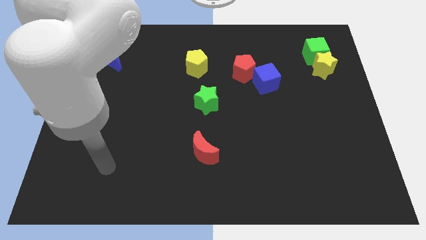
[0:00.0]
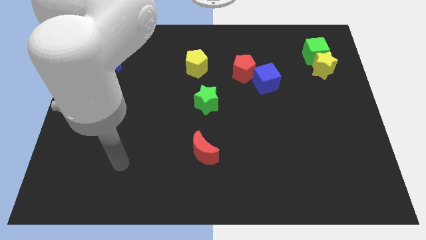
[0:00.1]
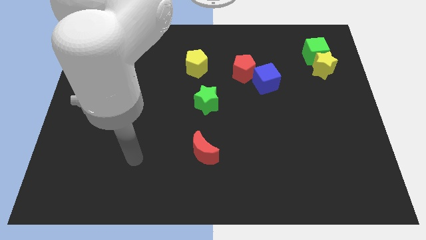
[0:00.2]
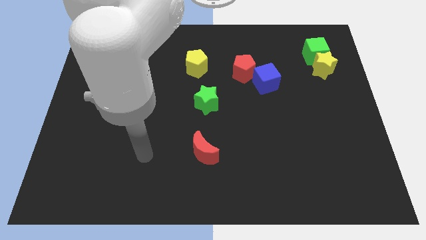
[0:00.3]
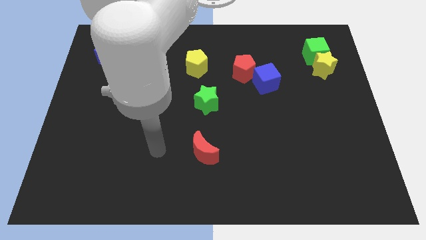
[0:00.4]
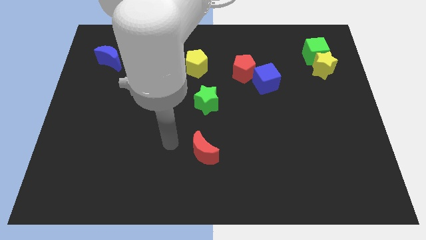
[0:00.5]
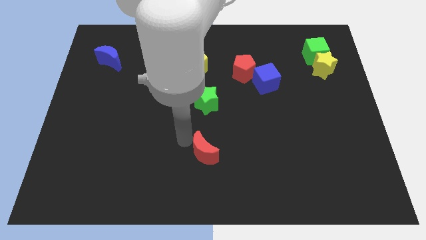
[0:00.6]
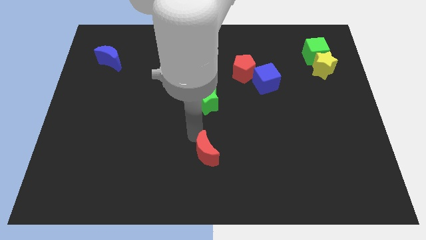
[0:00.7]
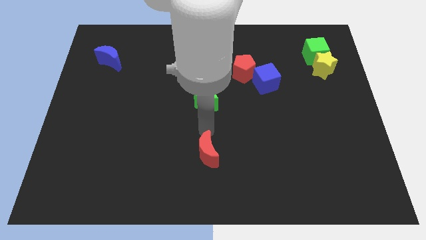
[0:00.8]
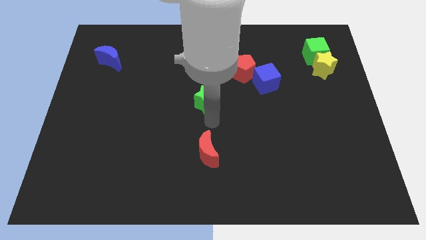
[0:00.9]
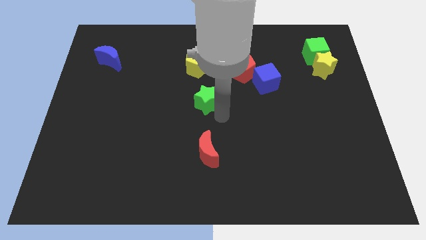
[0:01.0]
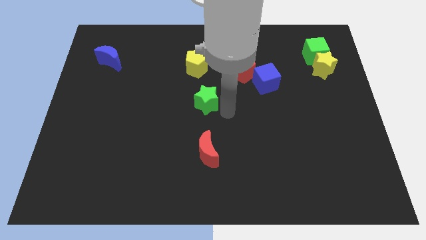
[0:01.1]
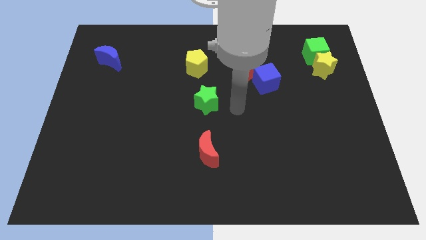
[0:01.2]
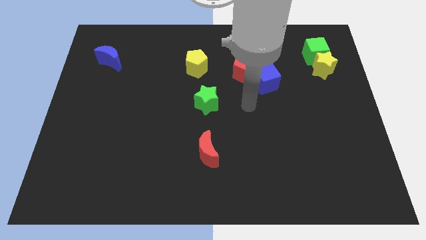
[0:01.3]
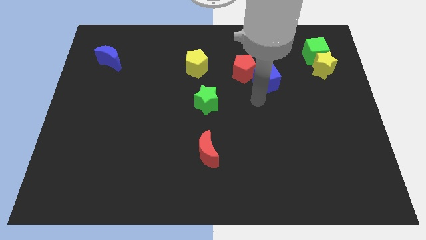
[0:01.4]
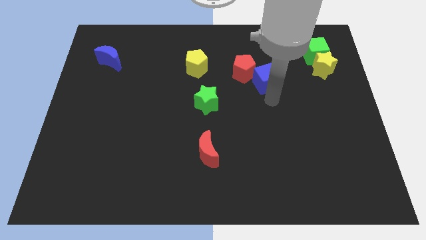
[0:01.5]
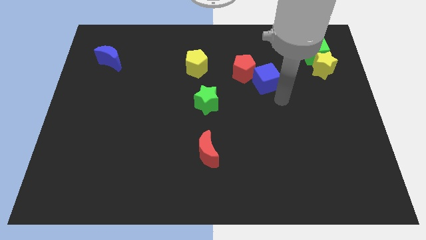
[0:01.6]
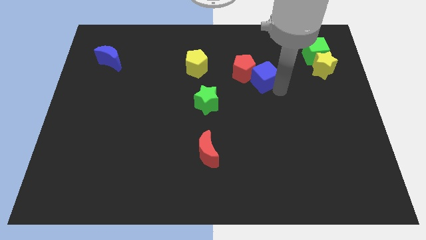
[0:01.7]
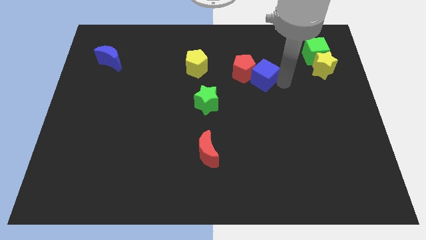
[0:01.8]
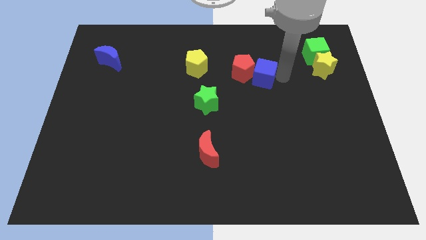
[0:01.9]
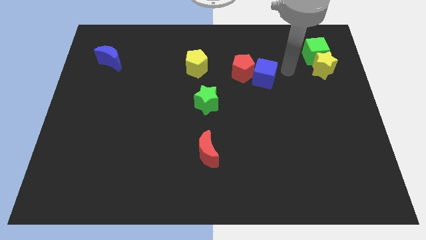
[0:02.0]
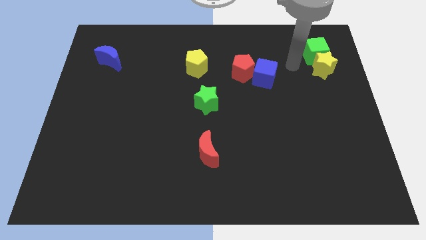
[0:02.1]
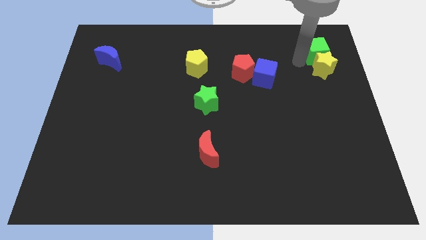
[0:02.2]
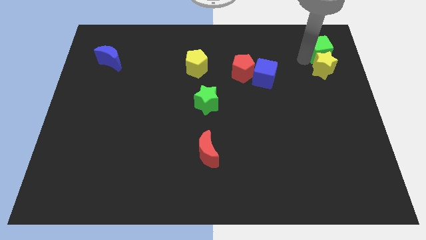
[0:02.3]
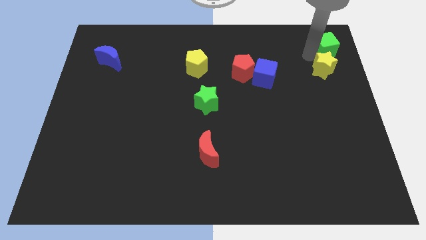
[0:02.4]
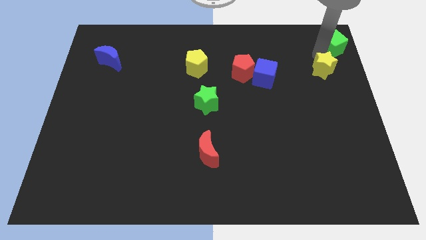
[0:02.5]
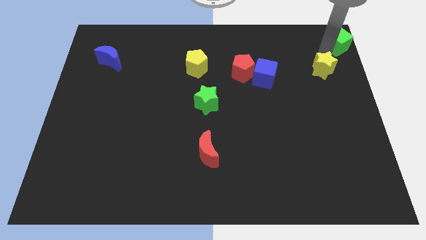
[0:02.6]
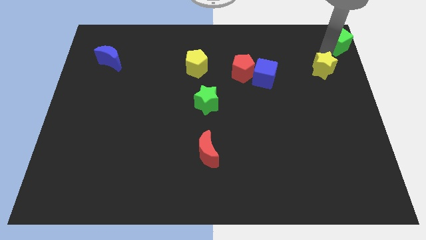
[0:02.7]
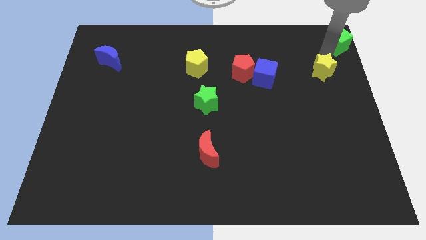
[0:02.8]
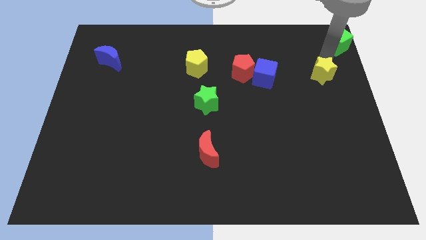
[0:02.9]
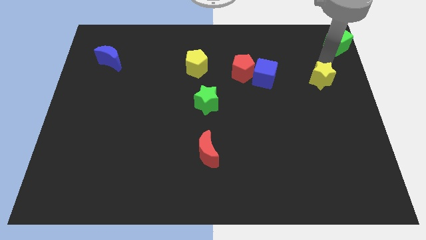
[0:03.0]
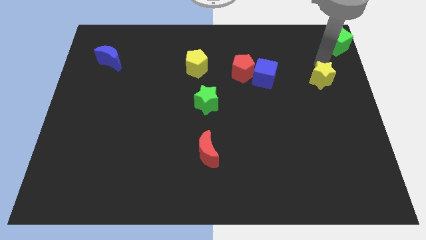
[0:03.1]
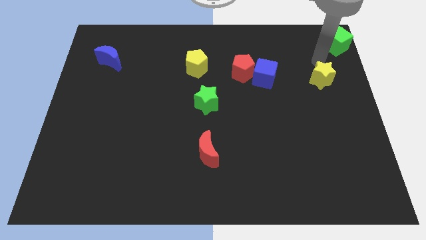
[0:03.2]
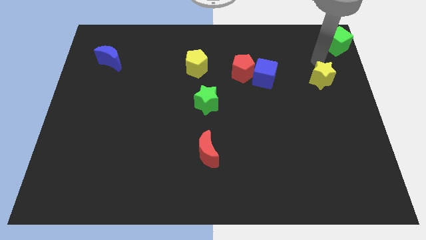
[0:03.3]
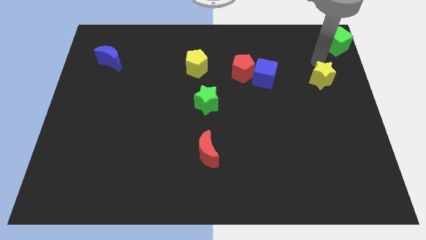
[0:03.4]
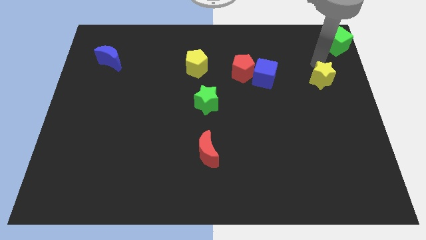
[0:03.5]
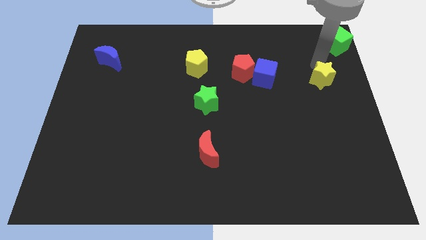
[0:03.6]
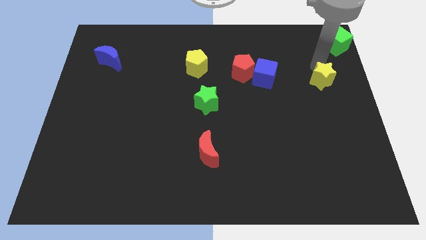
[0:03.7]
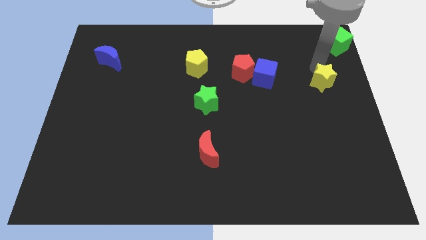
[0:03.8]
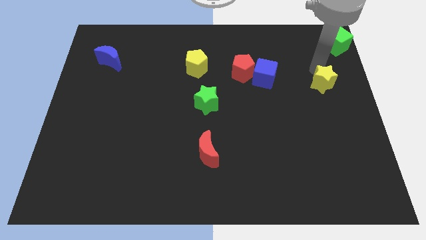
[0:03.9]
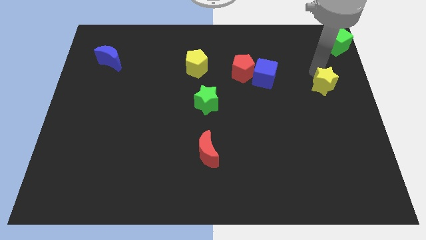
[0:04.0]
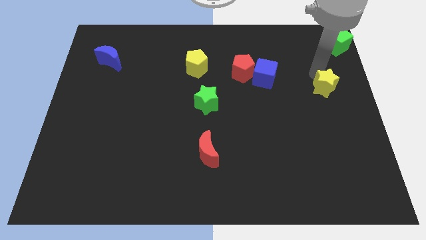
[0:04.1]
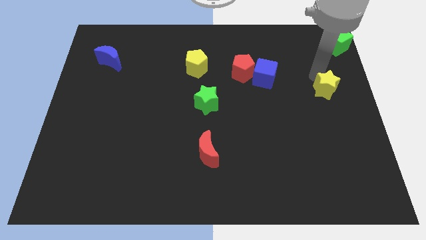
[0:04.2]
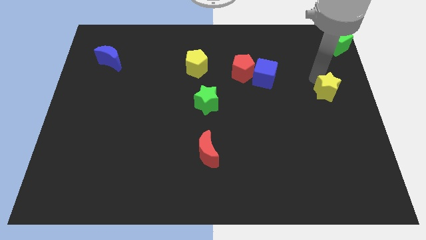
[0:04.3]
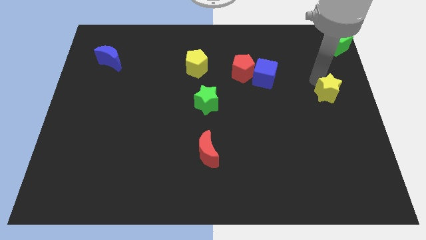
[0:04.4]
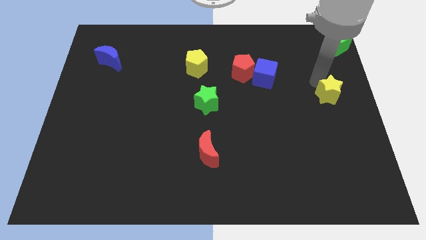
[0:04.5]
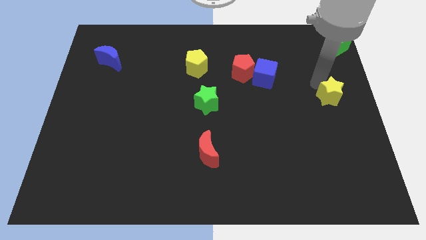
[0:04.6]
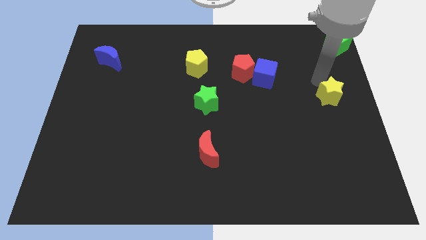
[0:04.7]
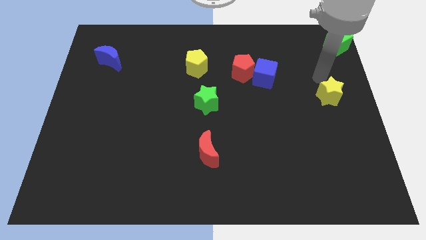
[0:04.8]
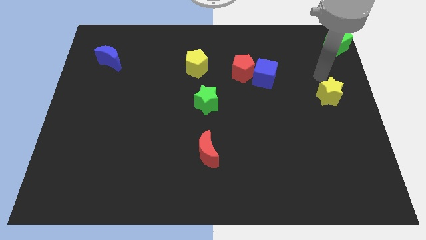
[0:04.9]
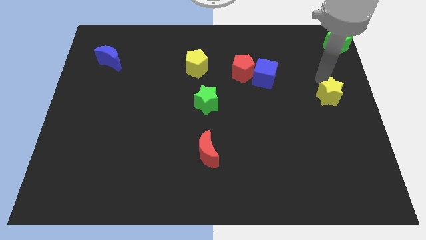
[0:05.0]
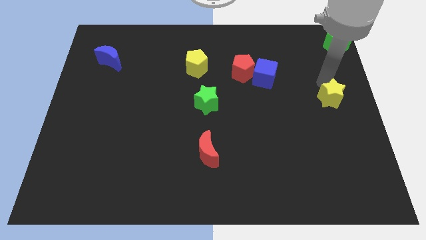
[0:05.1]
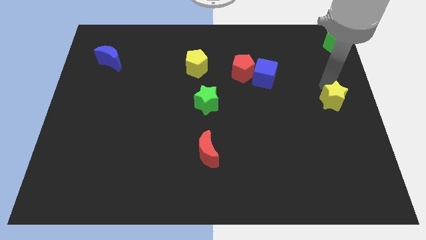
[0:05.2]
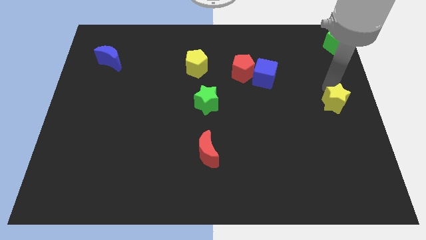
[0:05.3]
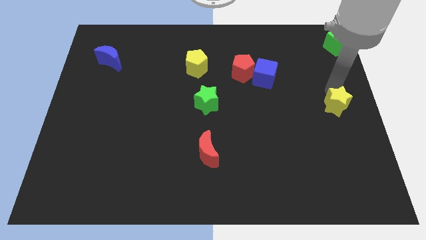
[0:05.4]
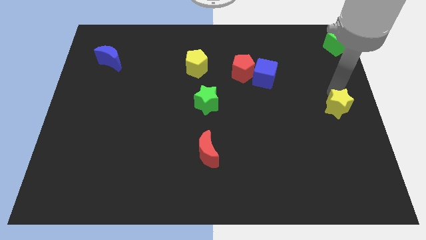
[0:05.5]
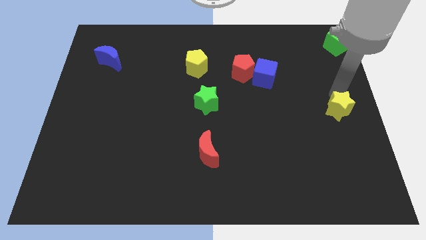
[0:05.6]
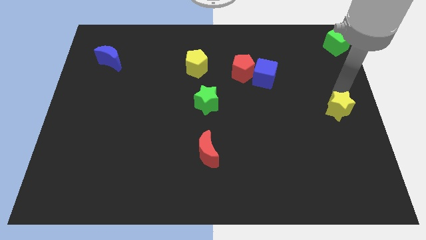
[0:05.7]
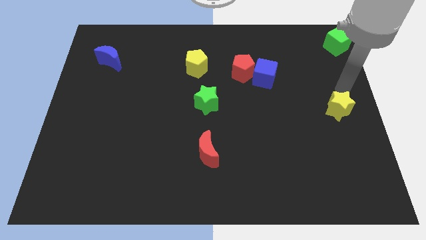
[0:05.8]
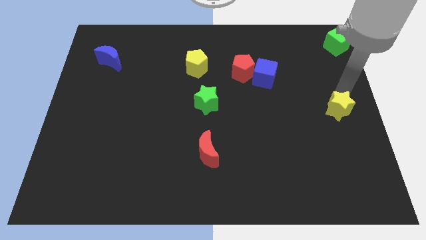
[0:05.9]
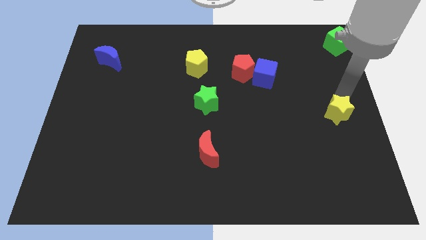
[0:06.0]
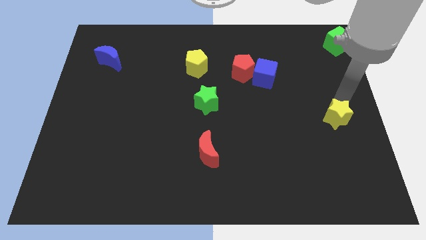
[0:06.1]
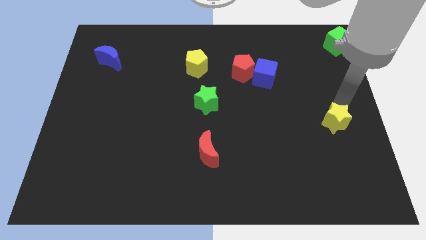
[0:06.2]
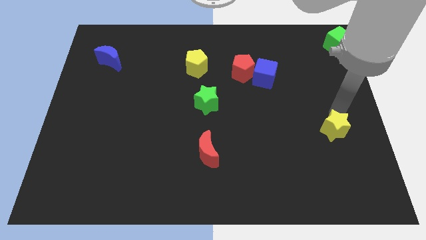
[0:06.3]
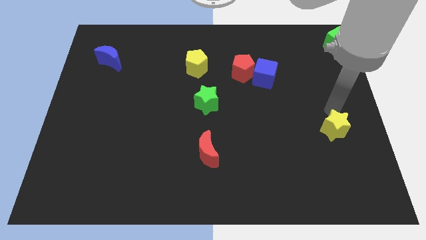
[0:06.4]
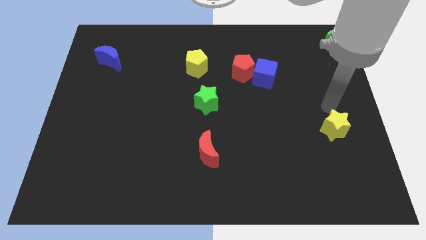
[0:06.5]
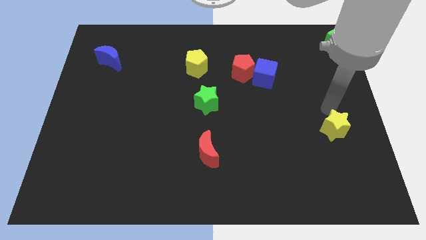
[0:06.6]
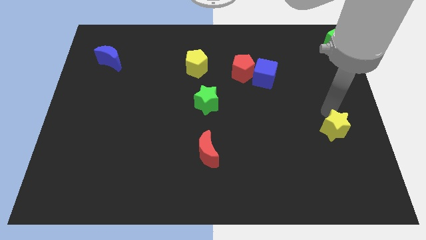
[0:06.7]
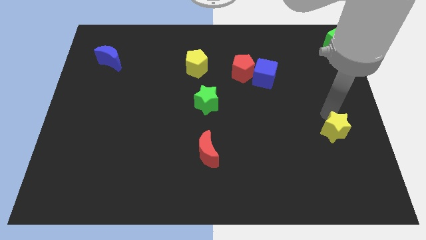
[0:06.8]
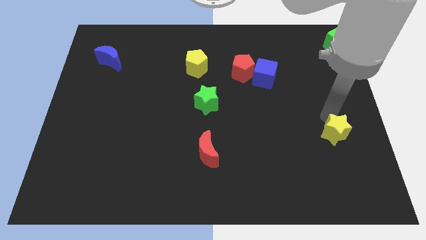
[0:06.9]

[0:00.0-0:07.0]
move the yellow star downwards

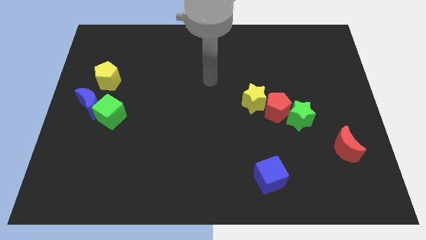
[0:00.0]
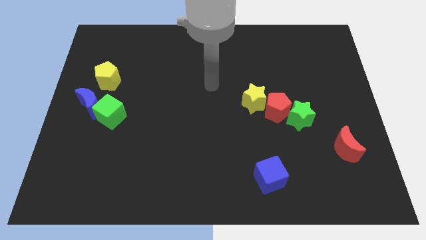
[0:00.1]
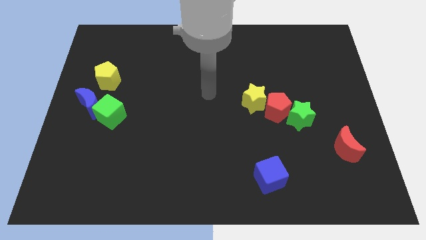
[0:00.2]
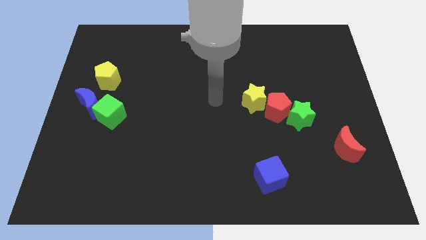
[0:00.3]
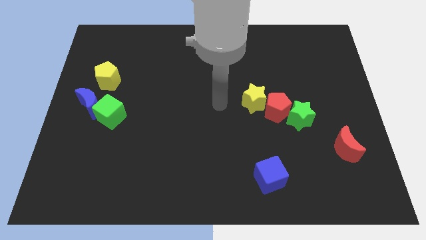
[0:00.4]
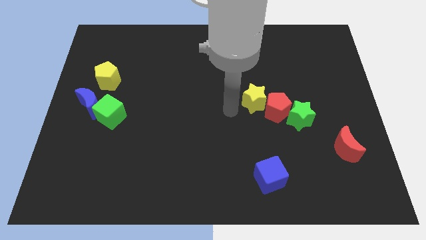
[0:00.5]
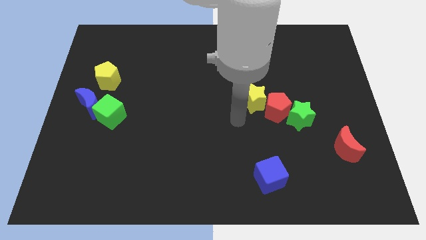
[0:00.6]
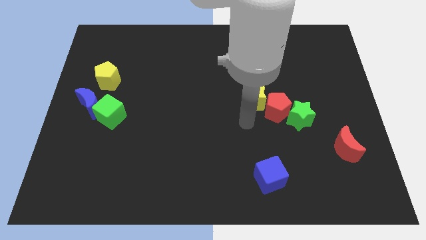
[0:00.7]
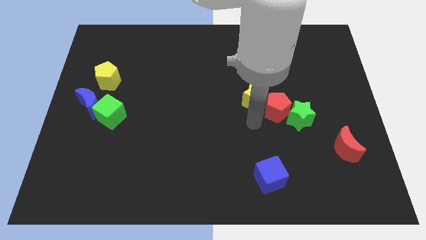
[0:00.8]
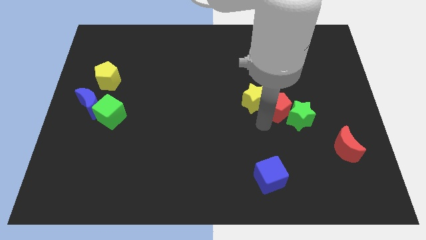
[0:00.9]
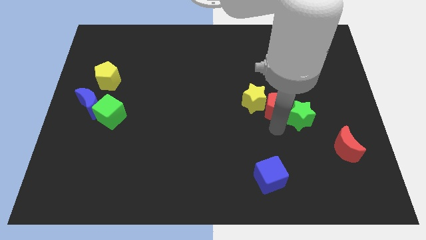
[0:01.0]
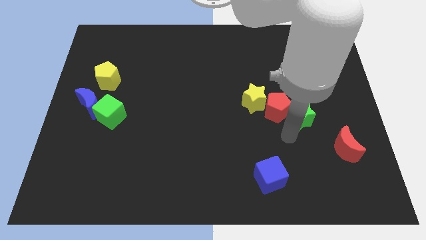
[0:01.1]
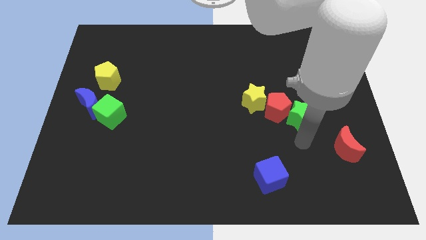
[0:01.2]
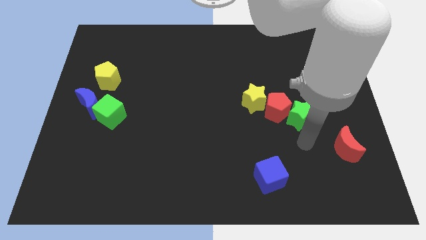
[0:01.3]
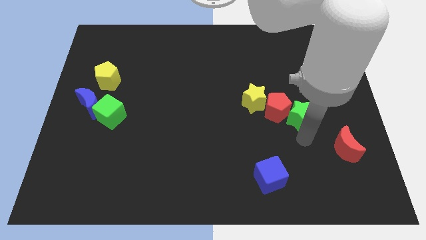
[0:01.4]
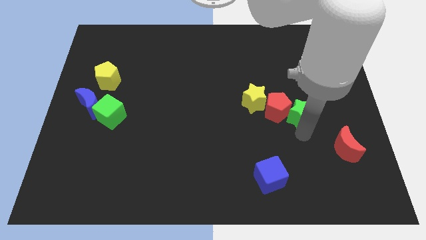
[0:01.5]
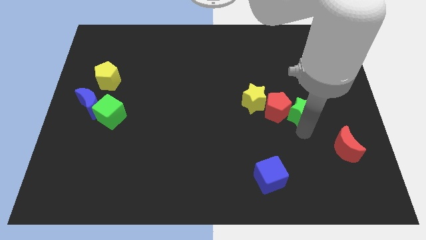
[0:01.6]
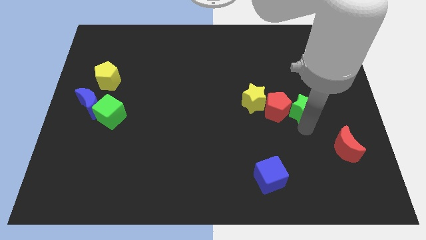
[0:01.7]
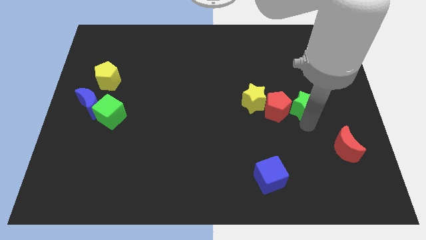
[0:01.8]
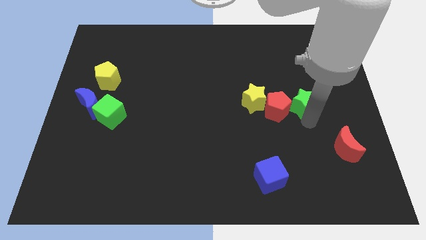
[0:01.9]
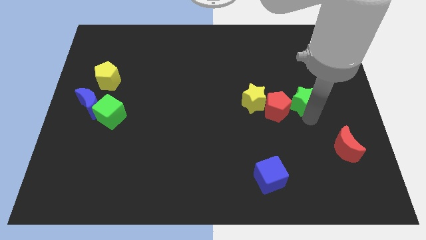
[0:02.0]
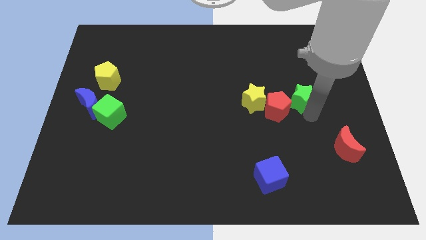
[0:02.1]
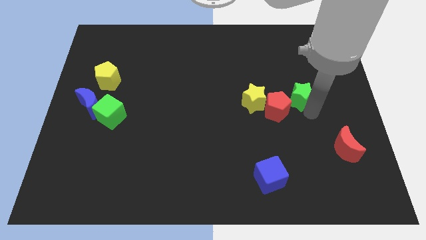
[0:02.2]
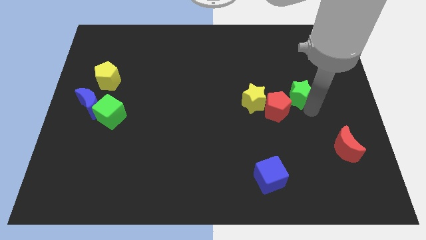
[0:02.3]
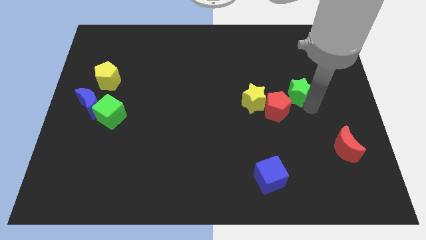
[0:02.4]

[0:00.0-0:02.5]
push the green star up a little bit
